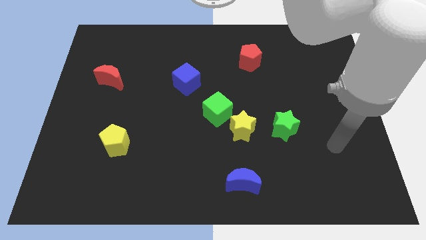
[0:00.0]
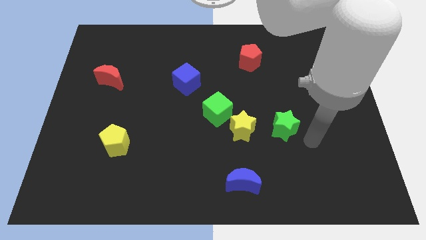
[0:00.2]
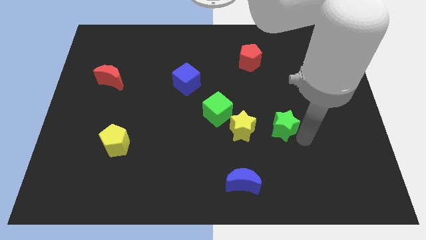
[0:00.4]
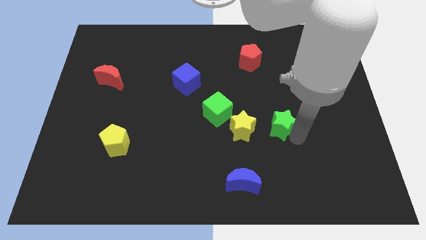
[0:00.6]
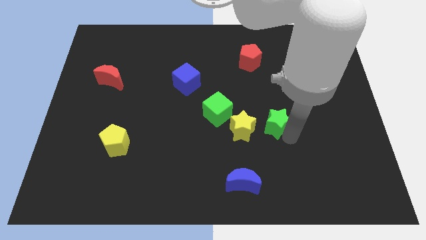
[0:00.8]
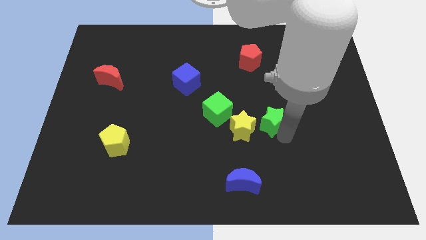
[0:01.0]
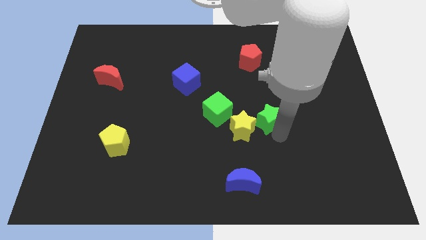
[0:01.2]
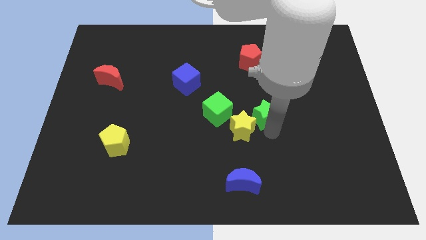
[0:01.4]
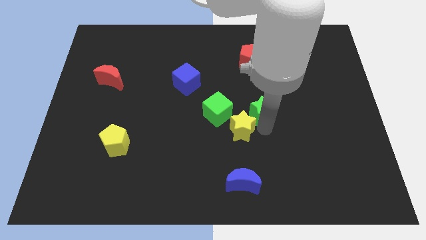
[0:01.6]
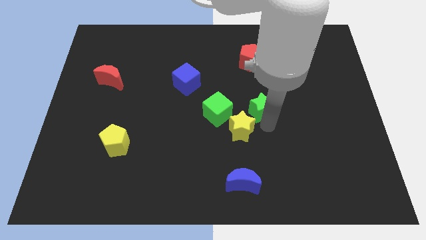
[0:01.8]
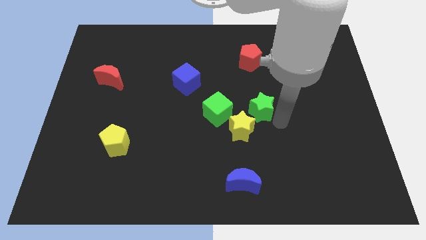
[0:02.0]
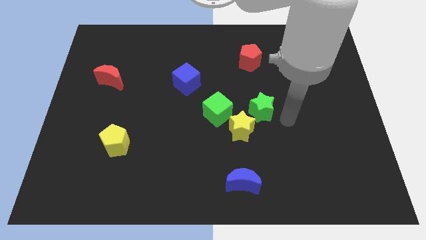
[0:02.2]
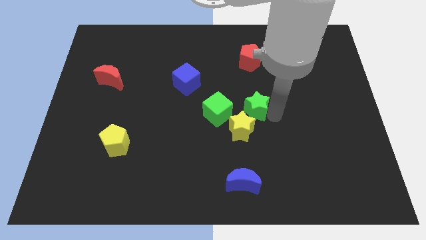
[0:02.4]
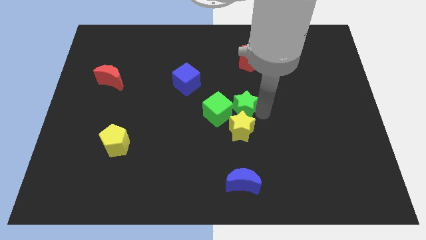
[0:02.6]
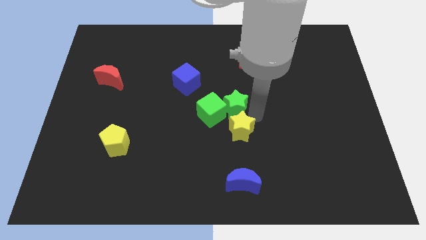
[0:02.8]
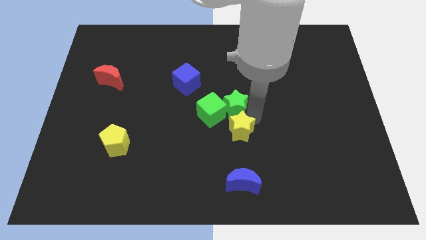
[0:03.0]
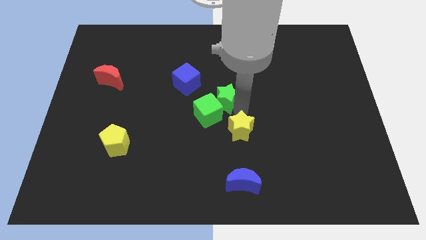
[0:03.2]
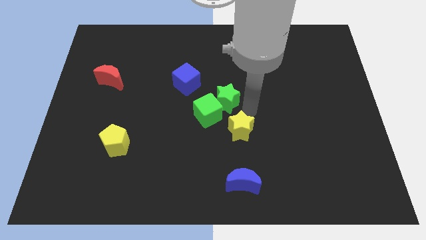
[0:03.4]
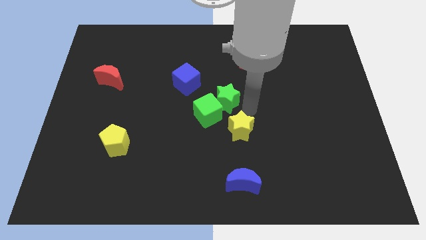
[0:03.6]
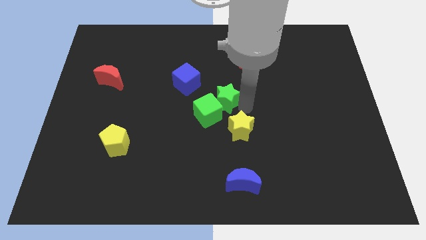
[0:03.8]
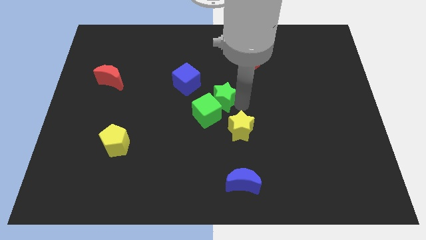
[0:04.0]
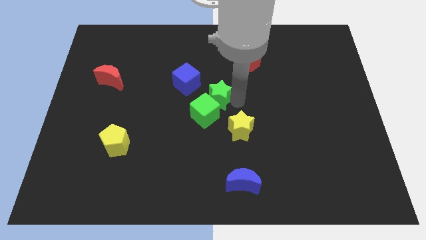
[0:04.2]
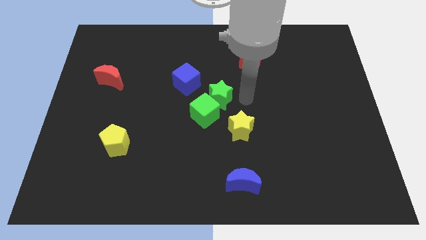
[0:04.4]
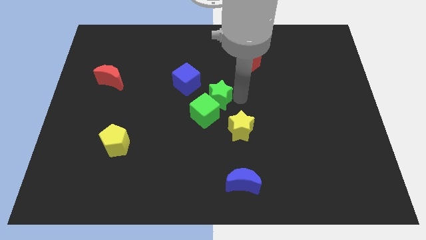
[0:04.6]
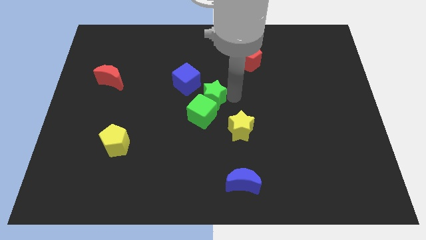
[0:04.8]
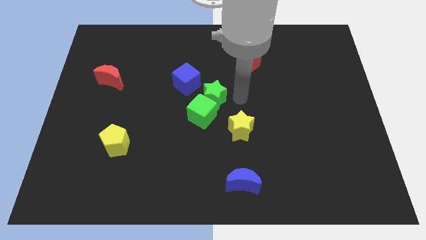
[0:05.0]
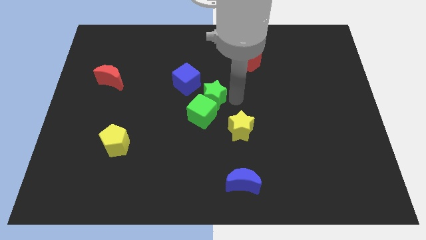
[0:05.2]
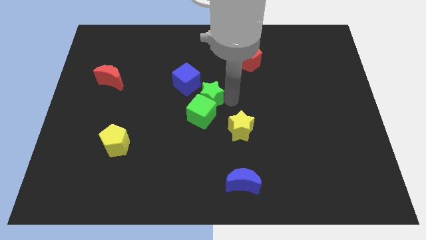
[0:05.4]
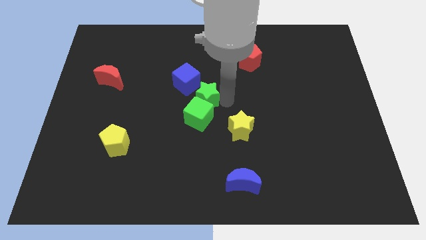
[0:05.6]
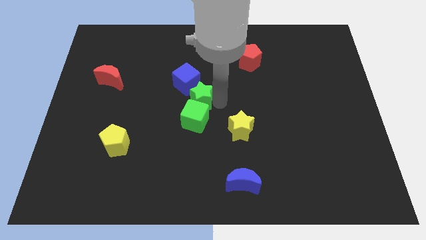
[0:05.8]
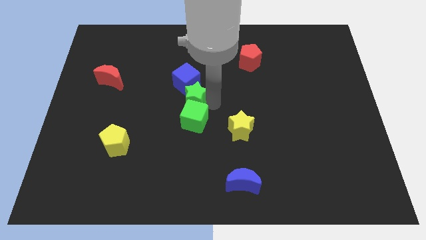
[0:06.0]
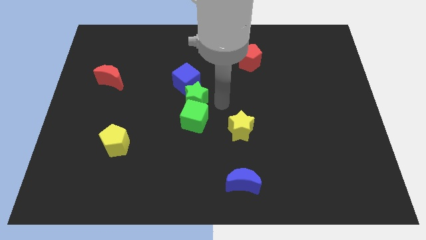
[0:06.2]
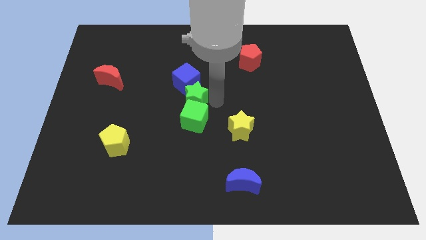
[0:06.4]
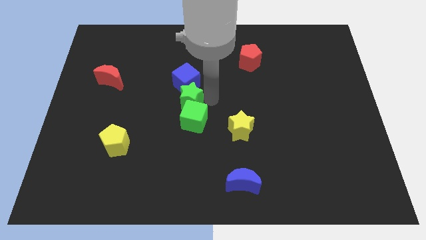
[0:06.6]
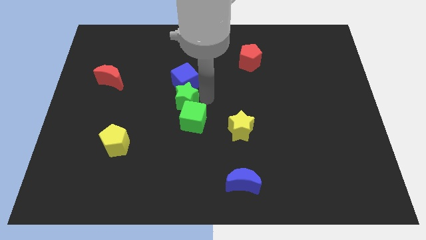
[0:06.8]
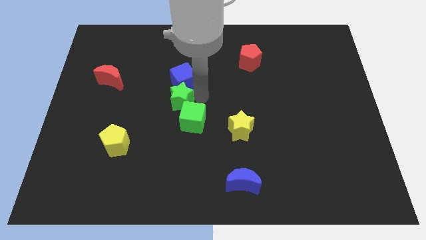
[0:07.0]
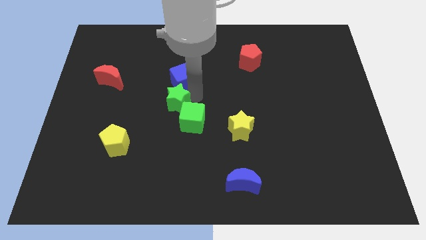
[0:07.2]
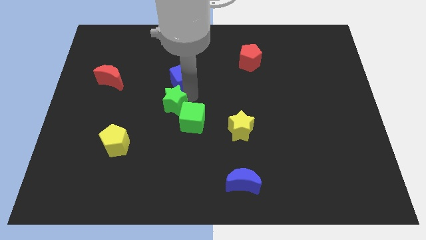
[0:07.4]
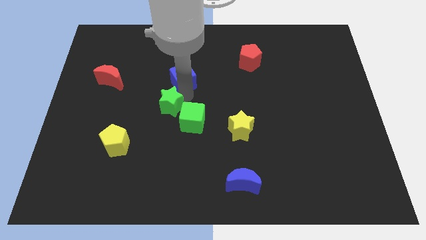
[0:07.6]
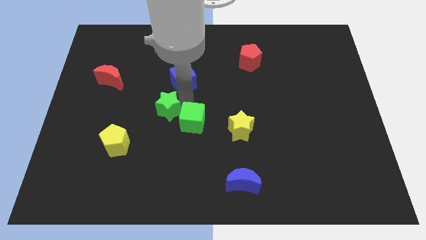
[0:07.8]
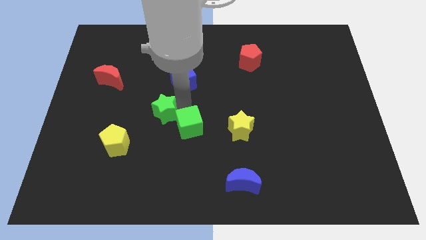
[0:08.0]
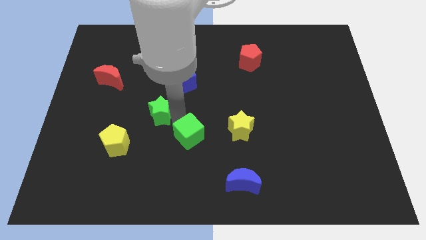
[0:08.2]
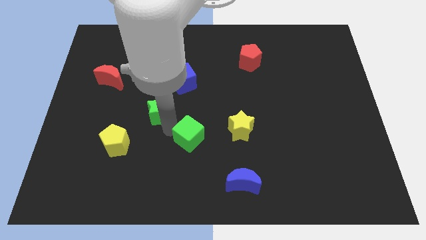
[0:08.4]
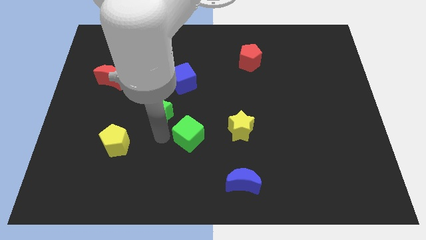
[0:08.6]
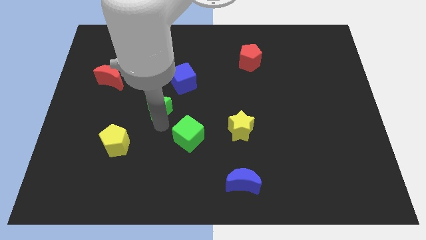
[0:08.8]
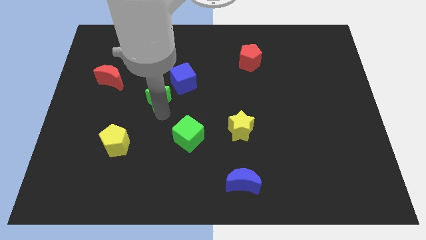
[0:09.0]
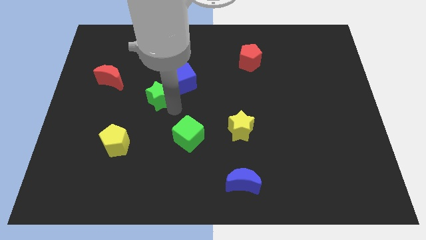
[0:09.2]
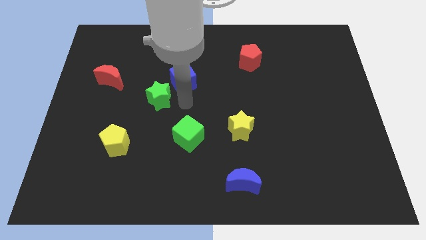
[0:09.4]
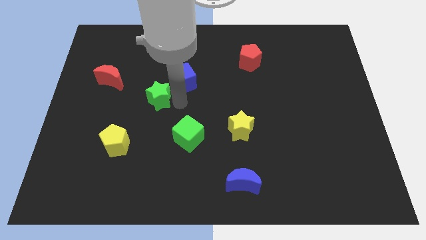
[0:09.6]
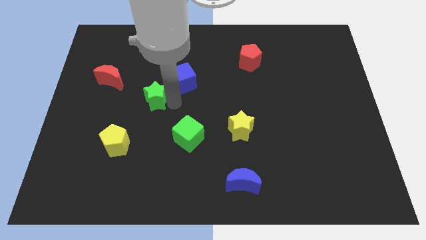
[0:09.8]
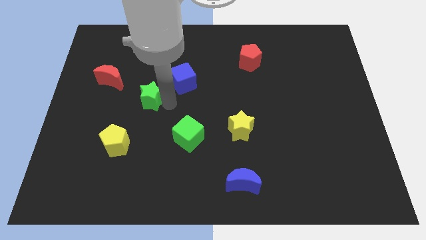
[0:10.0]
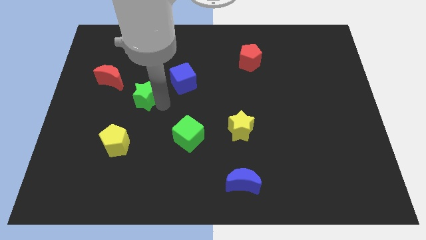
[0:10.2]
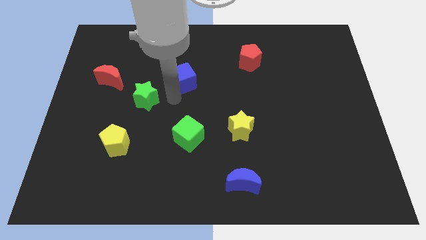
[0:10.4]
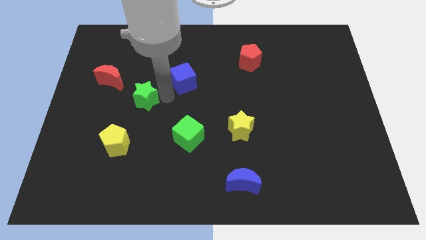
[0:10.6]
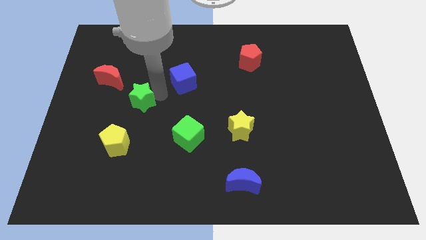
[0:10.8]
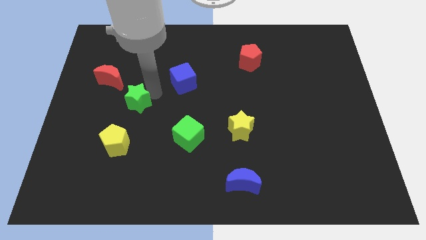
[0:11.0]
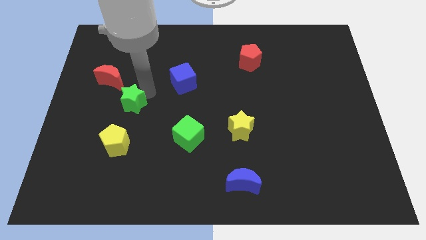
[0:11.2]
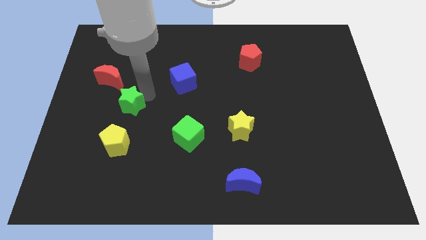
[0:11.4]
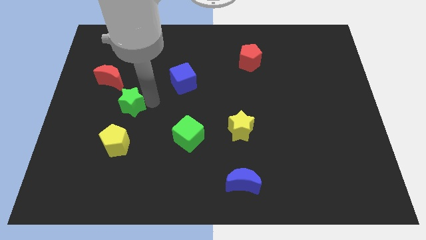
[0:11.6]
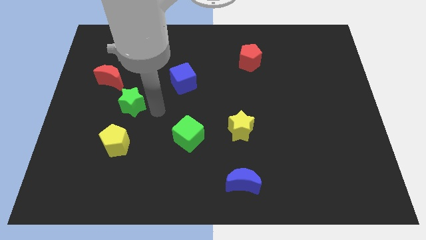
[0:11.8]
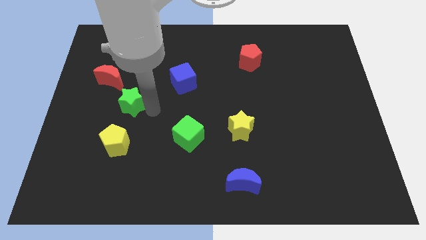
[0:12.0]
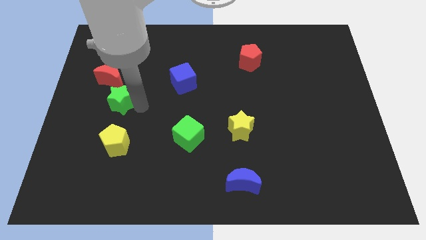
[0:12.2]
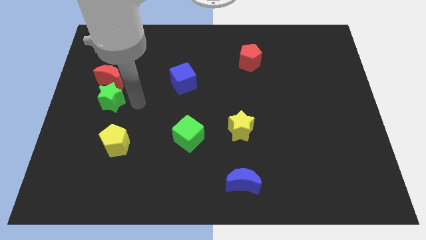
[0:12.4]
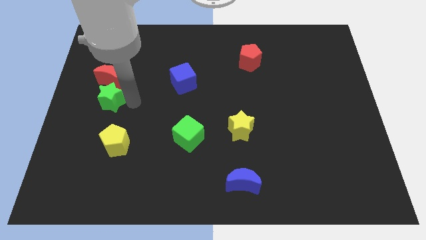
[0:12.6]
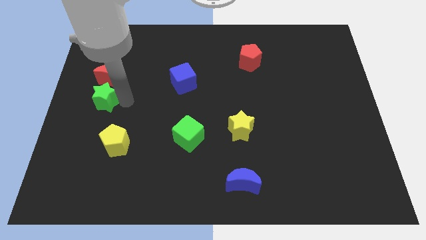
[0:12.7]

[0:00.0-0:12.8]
put the green star to the left side of the board
